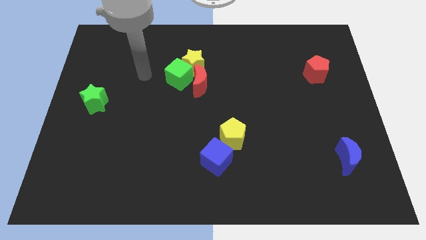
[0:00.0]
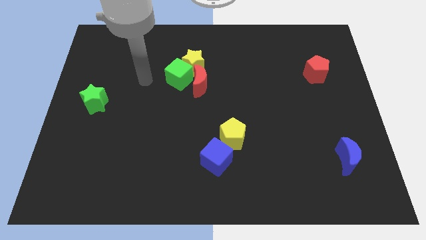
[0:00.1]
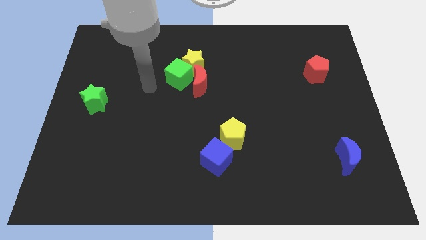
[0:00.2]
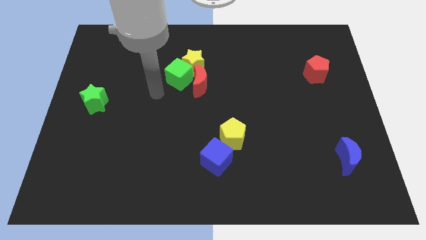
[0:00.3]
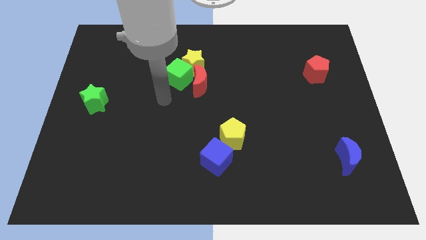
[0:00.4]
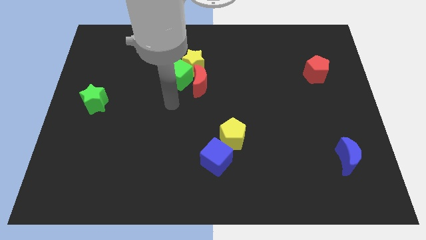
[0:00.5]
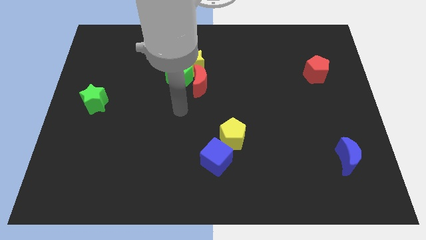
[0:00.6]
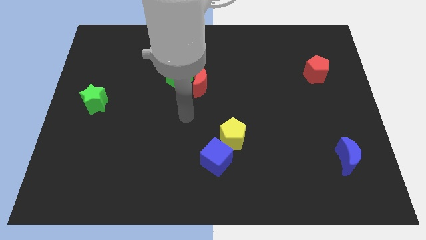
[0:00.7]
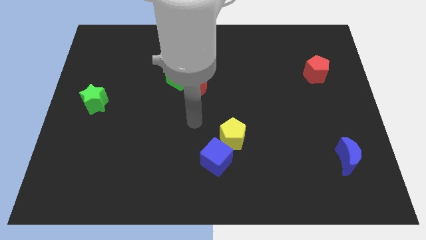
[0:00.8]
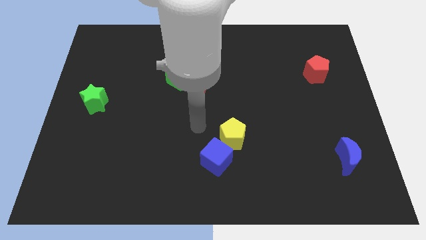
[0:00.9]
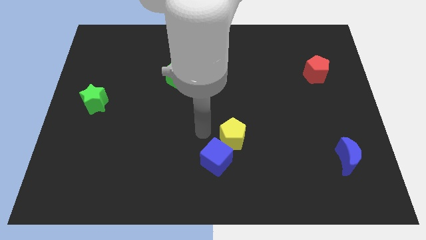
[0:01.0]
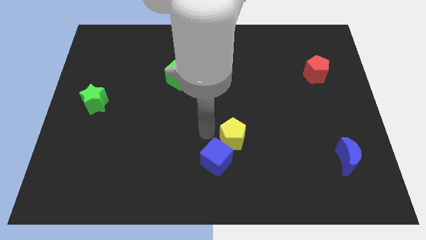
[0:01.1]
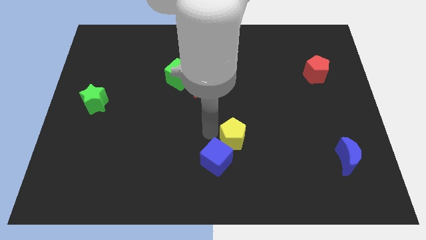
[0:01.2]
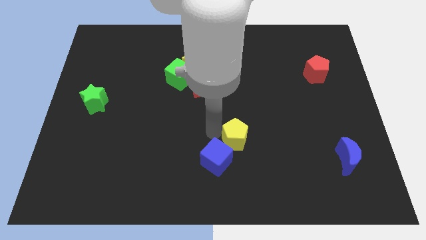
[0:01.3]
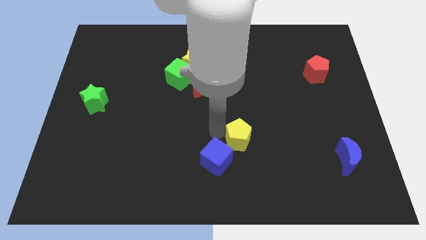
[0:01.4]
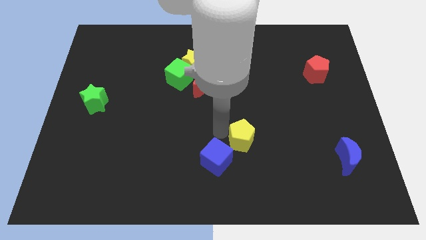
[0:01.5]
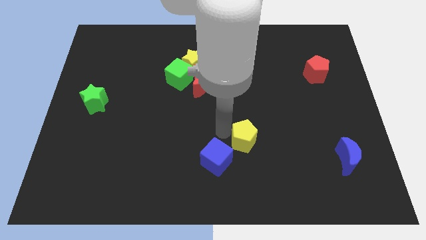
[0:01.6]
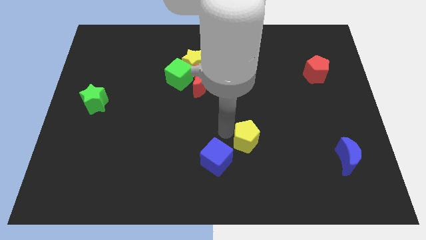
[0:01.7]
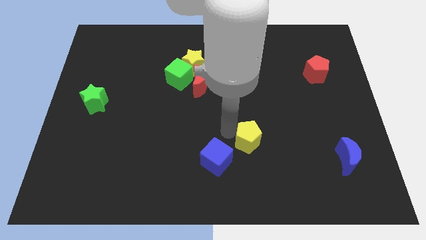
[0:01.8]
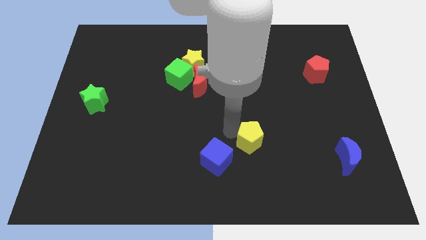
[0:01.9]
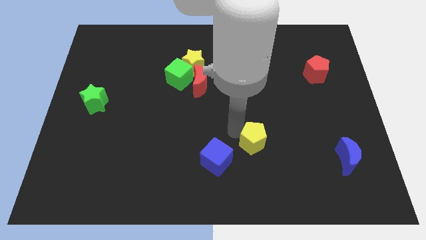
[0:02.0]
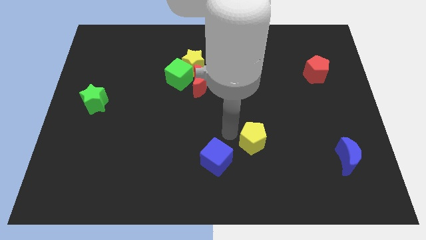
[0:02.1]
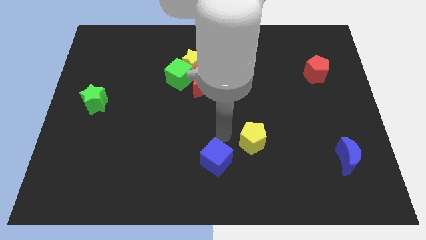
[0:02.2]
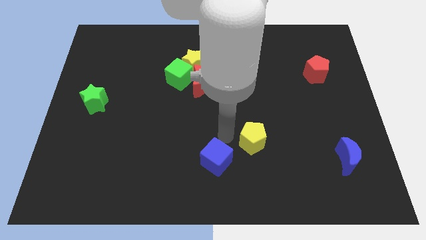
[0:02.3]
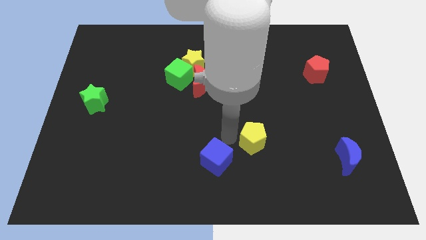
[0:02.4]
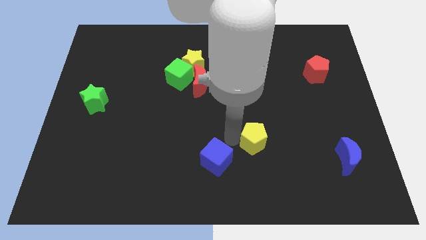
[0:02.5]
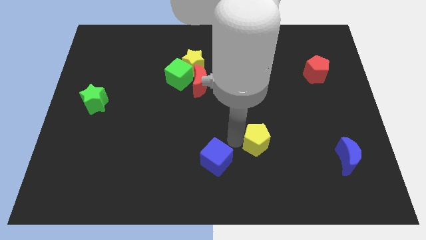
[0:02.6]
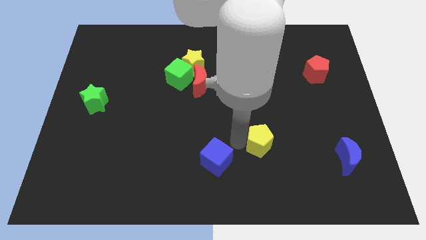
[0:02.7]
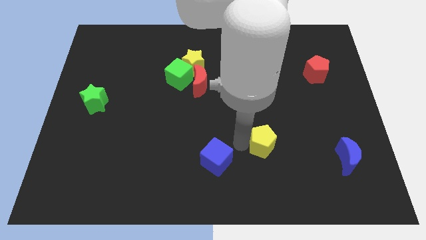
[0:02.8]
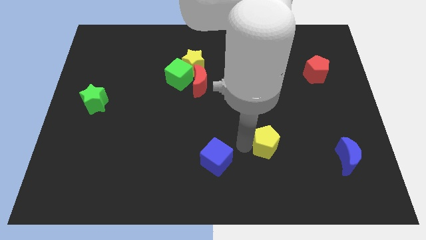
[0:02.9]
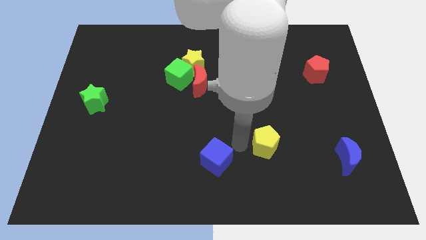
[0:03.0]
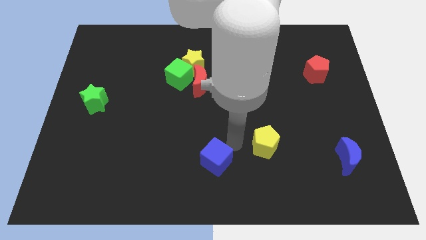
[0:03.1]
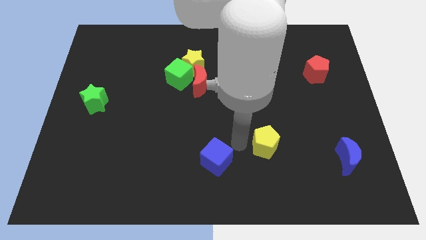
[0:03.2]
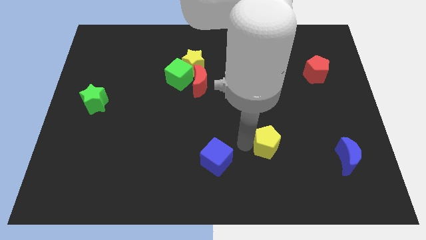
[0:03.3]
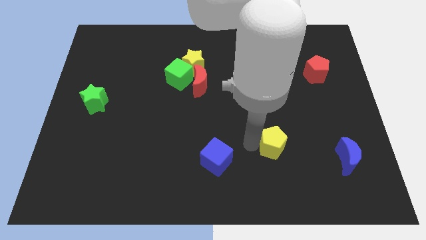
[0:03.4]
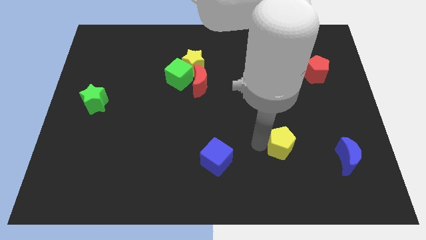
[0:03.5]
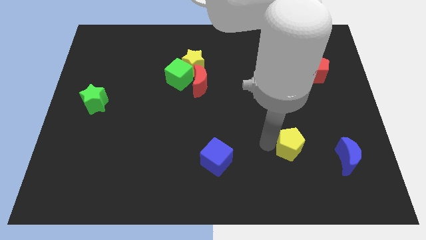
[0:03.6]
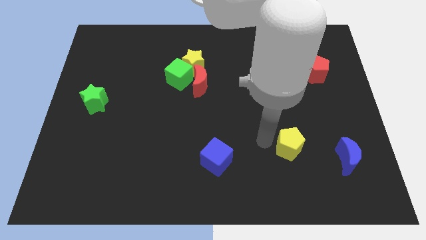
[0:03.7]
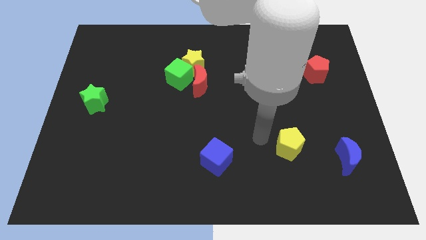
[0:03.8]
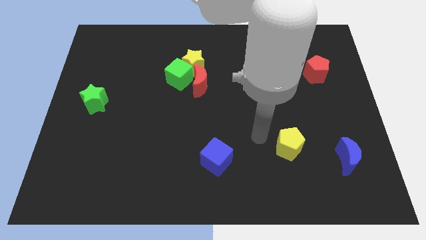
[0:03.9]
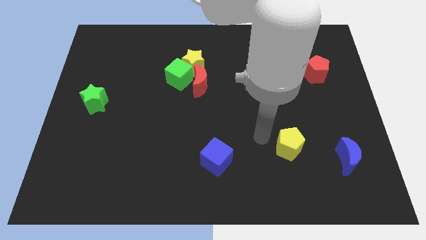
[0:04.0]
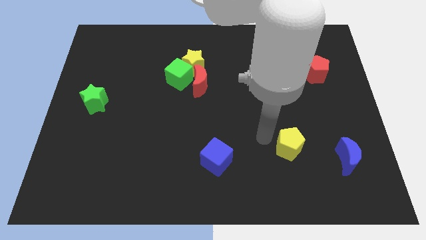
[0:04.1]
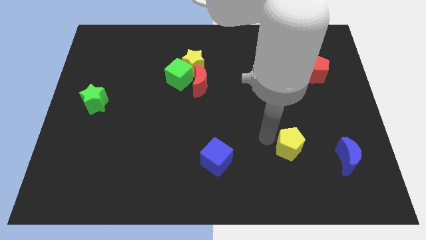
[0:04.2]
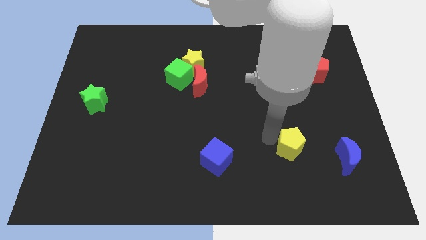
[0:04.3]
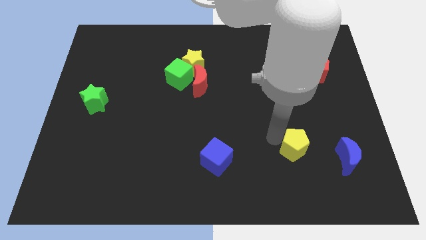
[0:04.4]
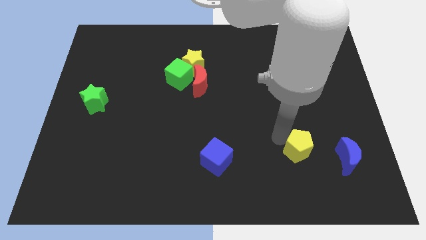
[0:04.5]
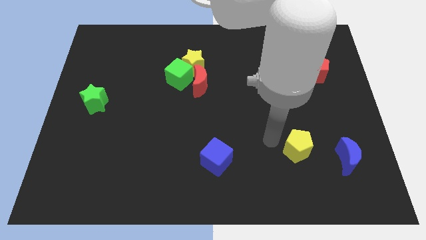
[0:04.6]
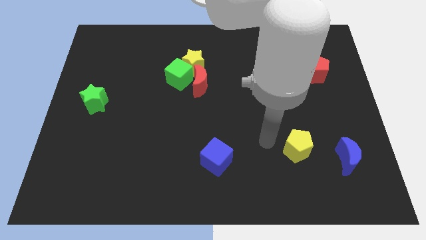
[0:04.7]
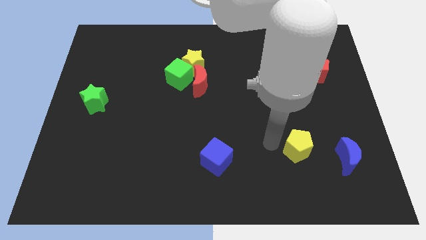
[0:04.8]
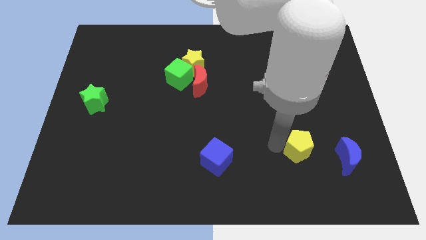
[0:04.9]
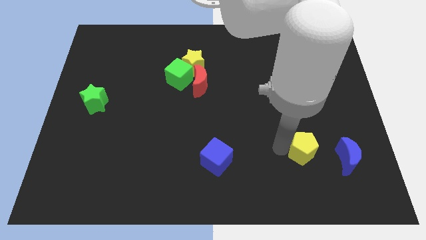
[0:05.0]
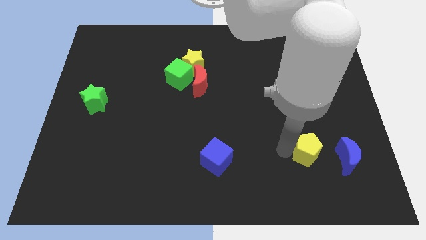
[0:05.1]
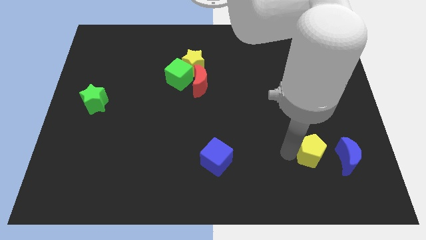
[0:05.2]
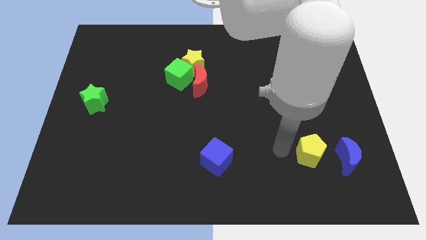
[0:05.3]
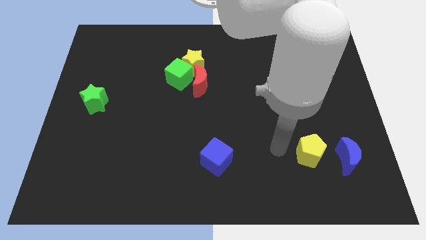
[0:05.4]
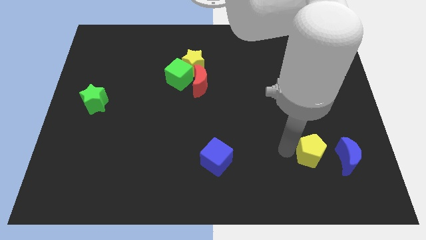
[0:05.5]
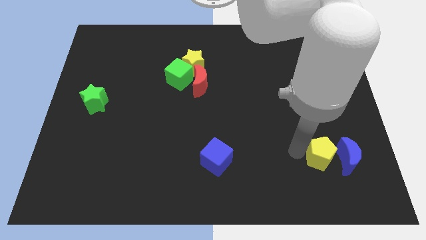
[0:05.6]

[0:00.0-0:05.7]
move the yellow pentagon close to the blue moon
